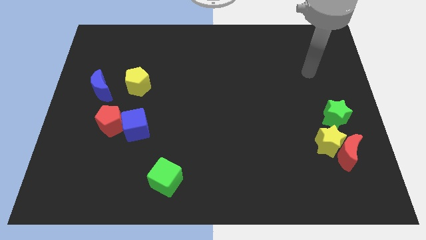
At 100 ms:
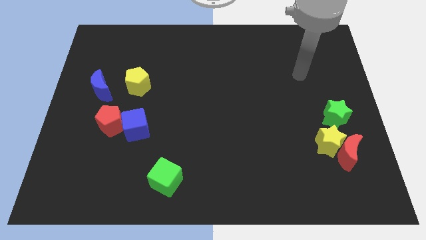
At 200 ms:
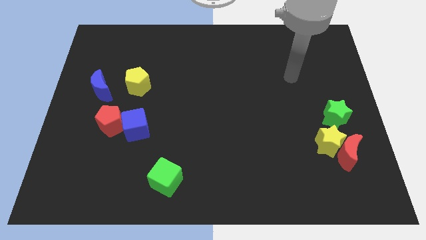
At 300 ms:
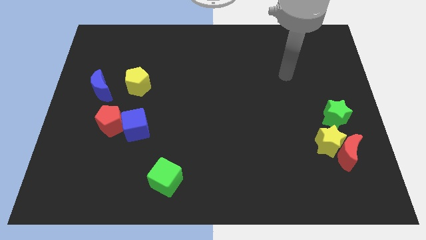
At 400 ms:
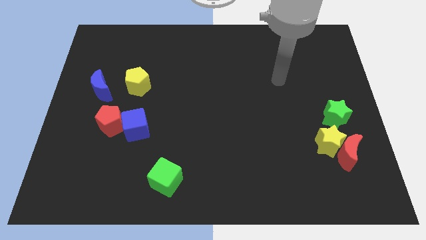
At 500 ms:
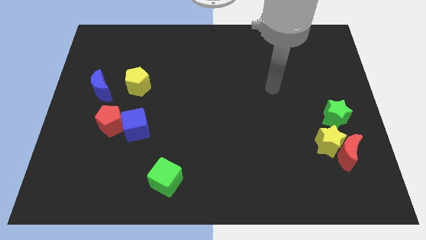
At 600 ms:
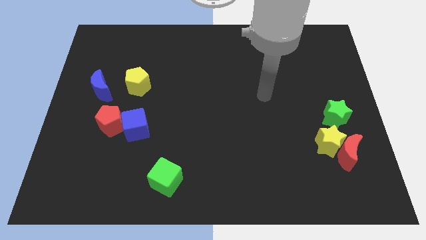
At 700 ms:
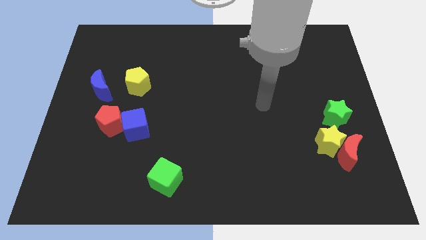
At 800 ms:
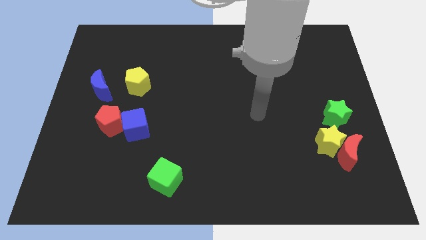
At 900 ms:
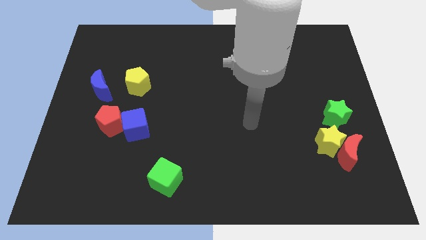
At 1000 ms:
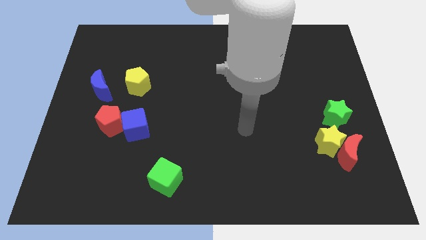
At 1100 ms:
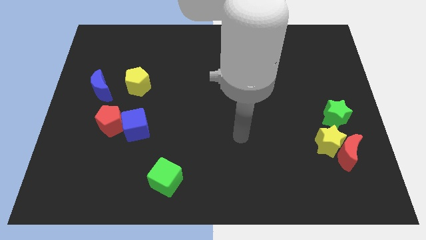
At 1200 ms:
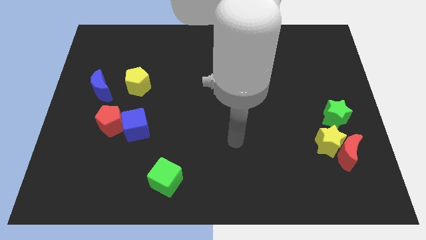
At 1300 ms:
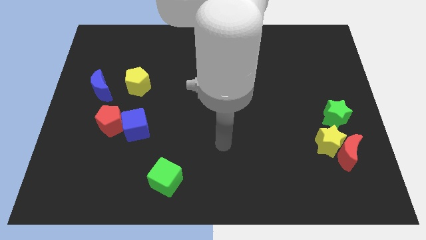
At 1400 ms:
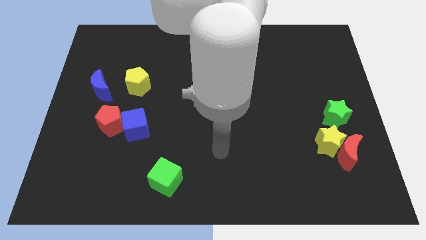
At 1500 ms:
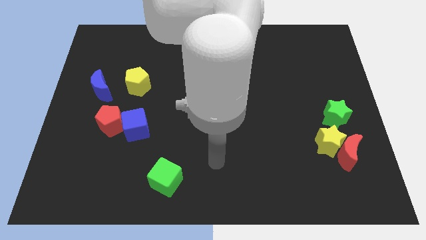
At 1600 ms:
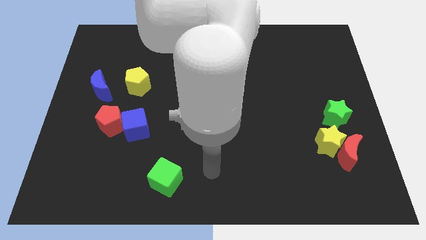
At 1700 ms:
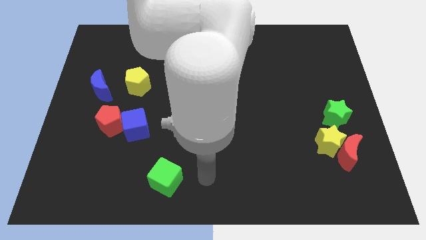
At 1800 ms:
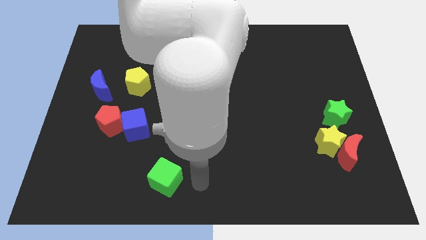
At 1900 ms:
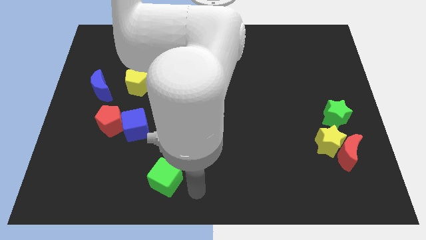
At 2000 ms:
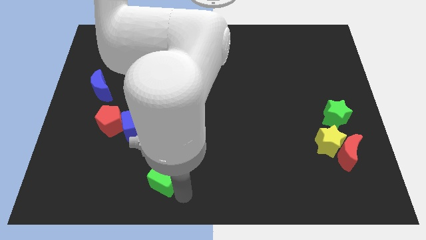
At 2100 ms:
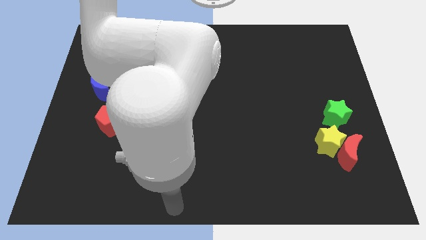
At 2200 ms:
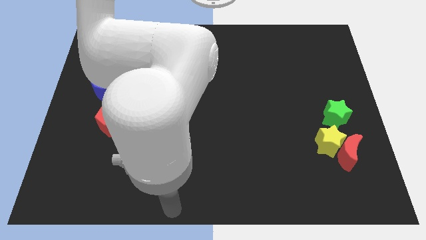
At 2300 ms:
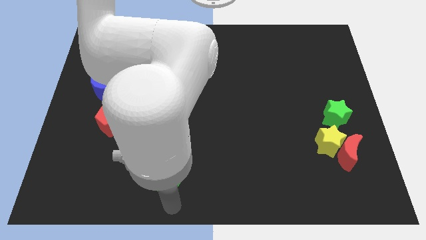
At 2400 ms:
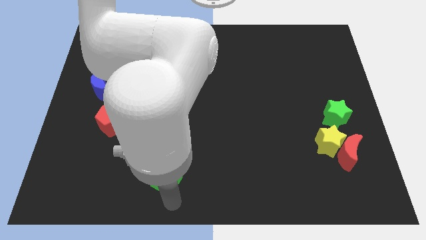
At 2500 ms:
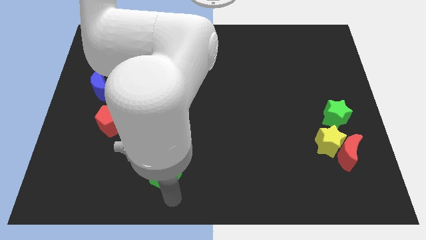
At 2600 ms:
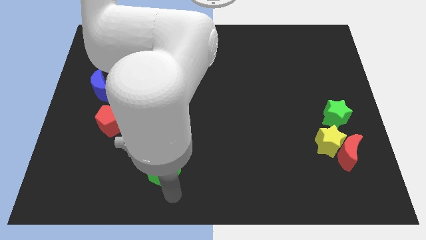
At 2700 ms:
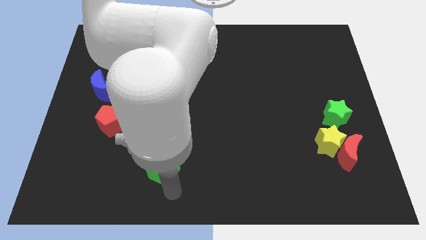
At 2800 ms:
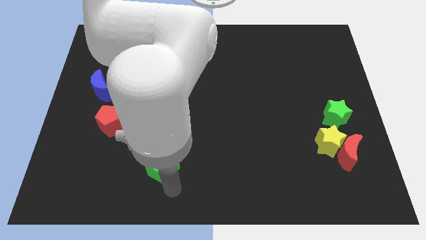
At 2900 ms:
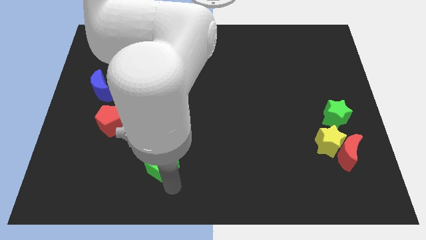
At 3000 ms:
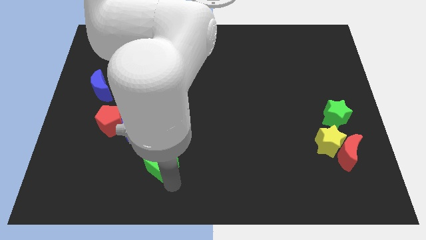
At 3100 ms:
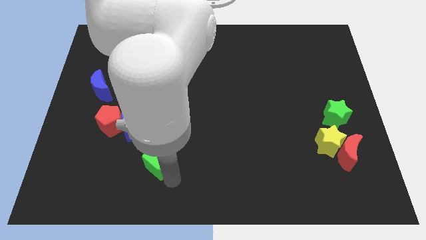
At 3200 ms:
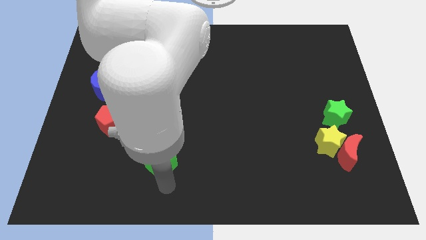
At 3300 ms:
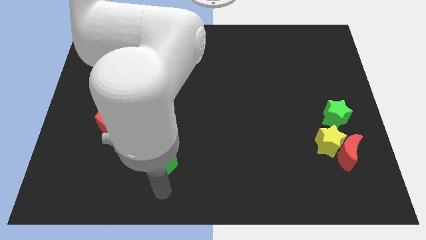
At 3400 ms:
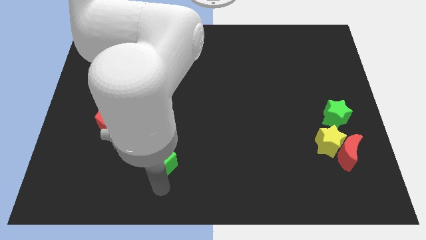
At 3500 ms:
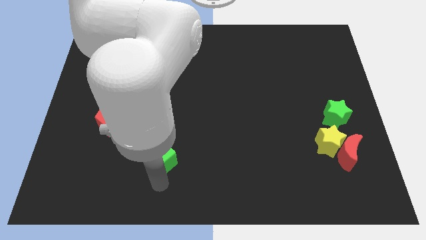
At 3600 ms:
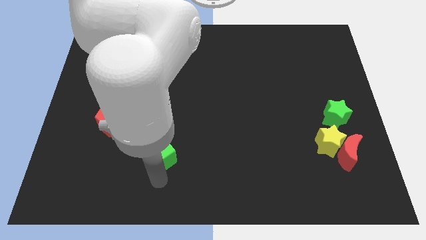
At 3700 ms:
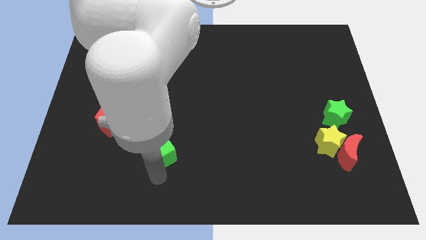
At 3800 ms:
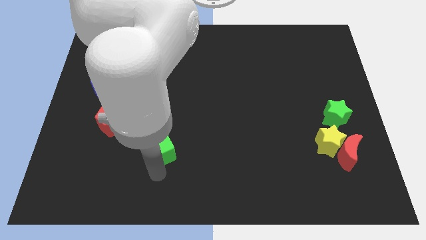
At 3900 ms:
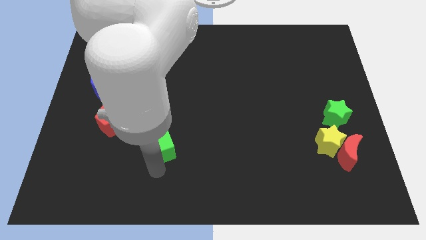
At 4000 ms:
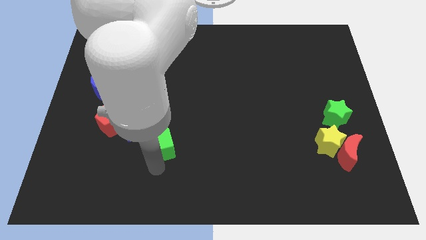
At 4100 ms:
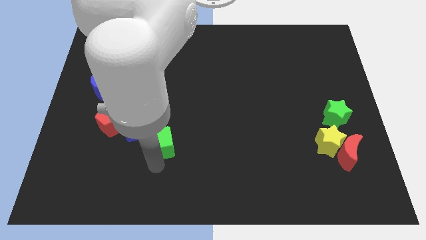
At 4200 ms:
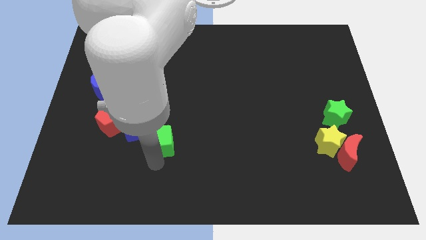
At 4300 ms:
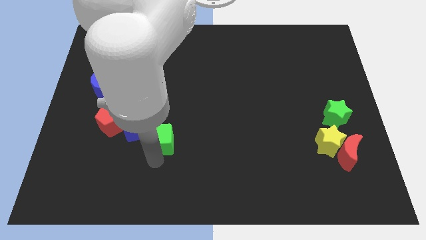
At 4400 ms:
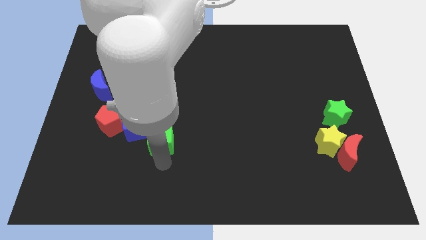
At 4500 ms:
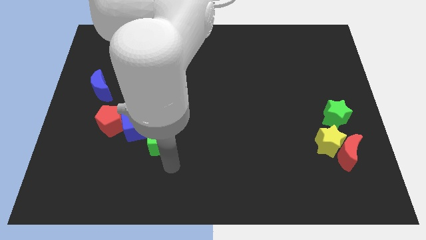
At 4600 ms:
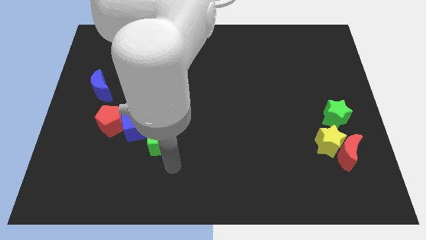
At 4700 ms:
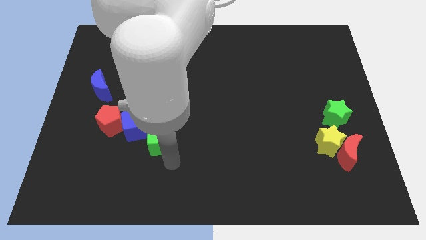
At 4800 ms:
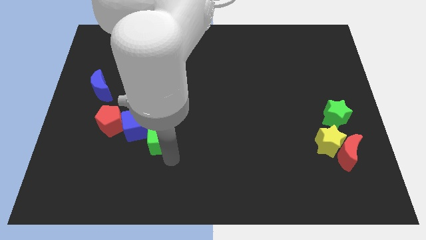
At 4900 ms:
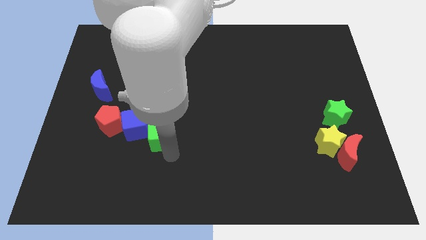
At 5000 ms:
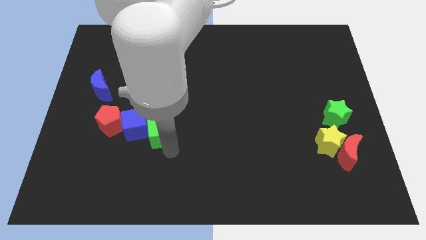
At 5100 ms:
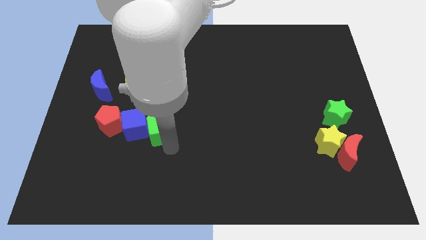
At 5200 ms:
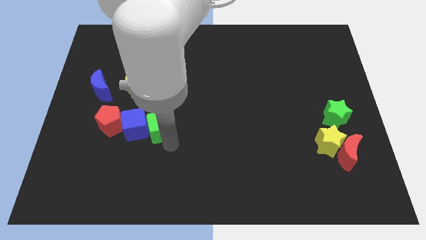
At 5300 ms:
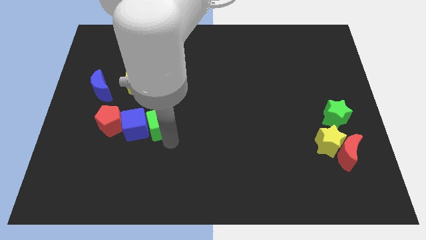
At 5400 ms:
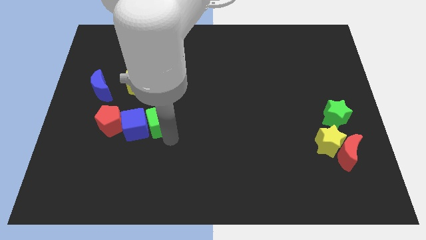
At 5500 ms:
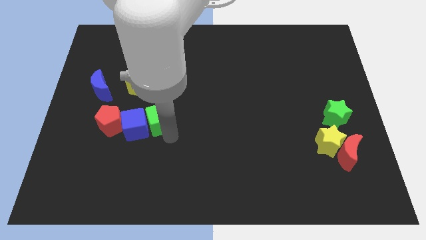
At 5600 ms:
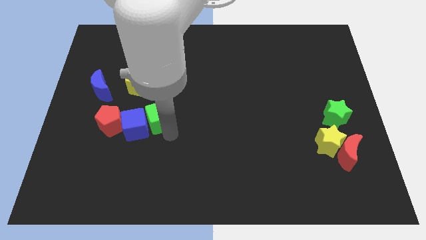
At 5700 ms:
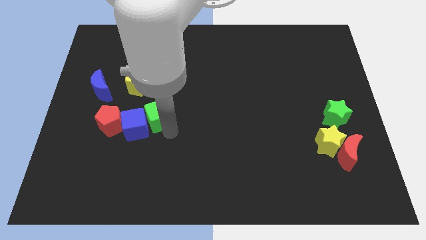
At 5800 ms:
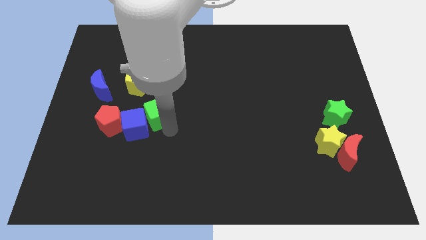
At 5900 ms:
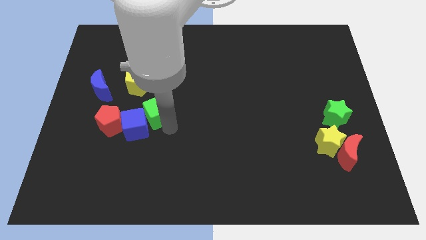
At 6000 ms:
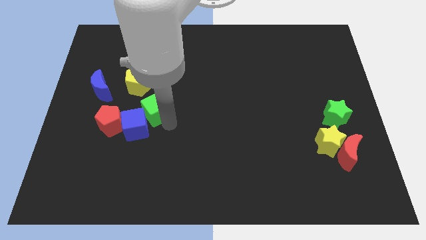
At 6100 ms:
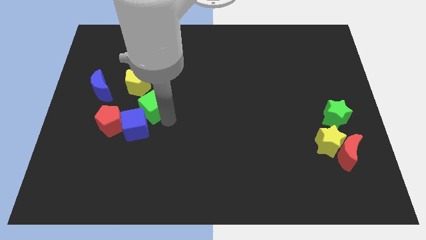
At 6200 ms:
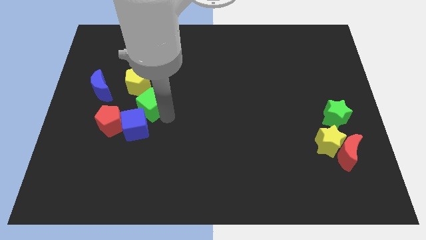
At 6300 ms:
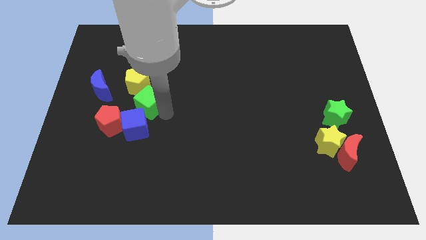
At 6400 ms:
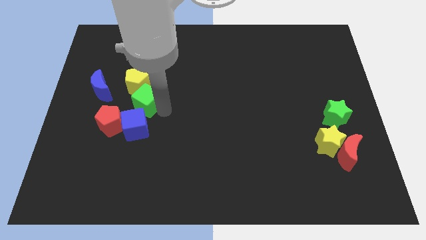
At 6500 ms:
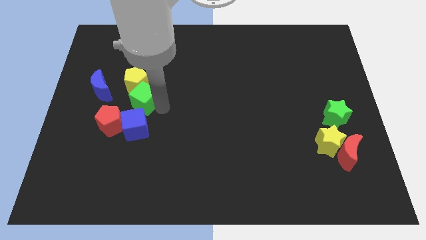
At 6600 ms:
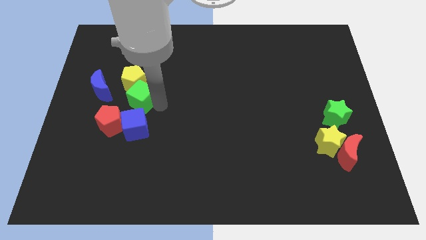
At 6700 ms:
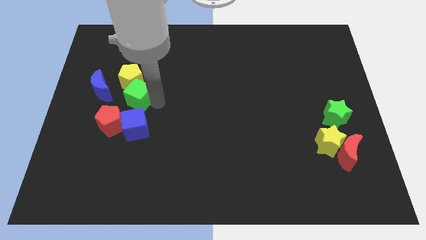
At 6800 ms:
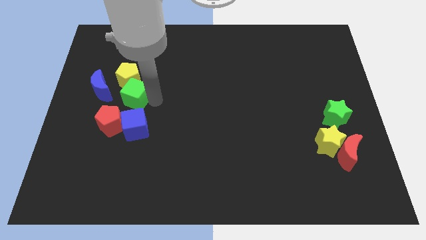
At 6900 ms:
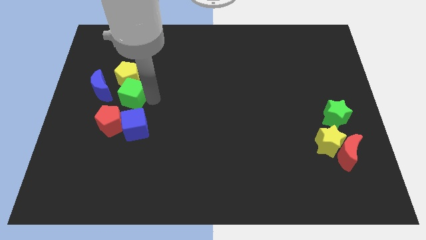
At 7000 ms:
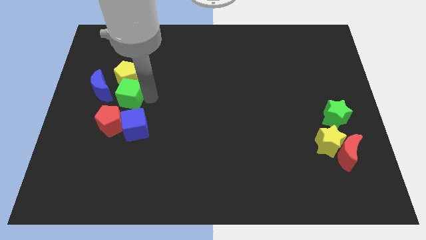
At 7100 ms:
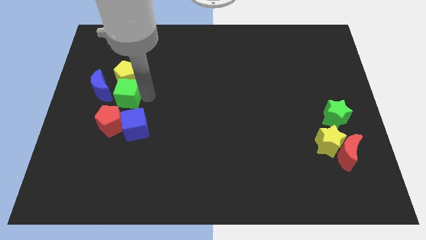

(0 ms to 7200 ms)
move the green cube to the bottom left side of the yellow pentagon
